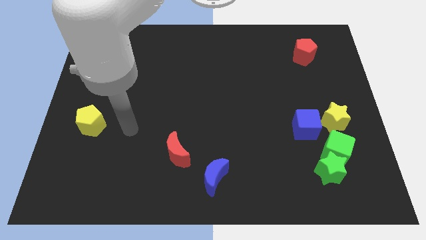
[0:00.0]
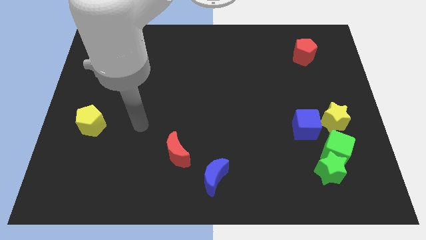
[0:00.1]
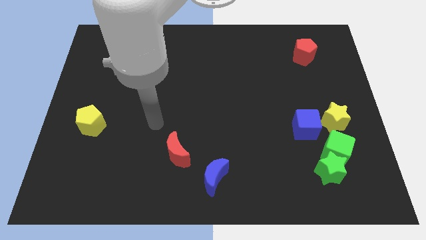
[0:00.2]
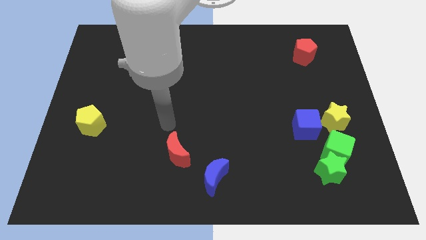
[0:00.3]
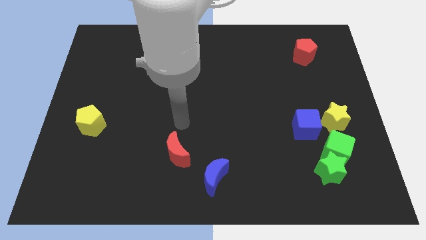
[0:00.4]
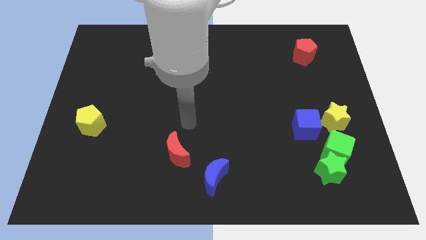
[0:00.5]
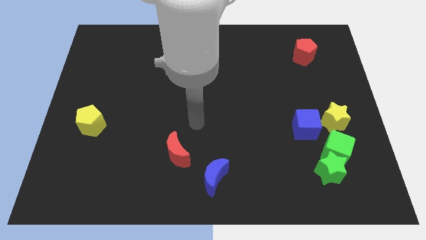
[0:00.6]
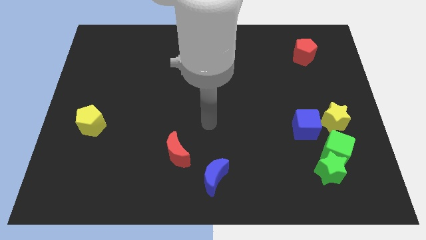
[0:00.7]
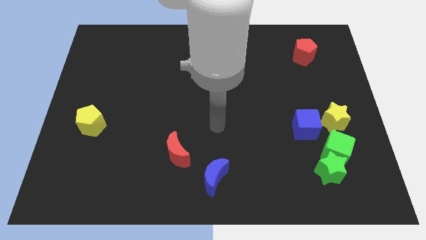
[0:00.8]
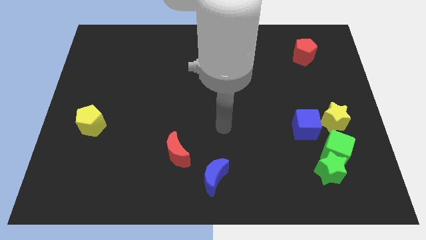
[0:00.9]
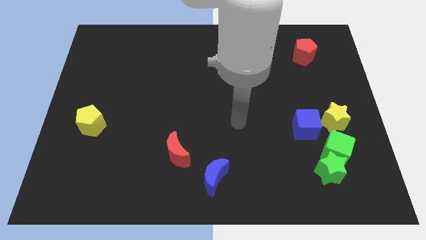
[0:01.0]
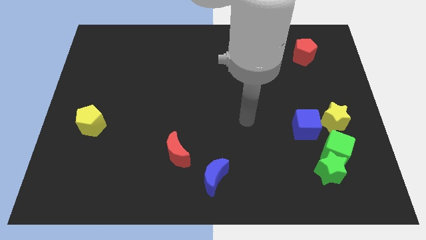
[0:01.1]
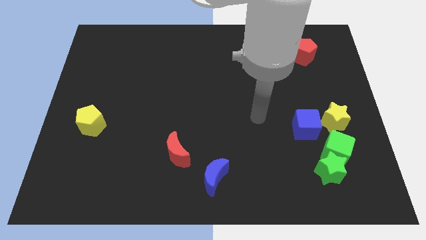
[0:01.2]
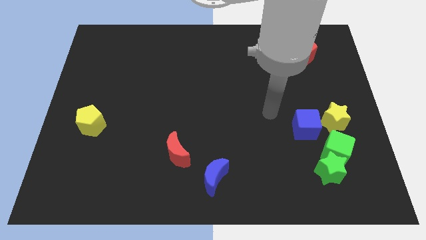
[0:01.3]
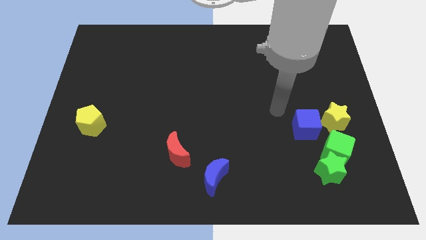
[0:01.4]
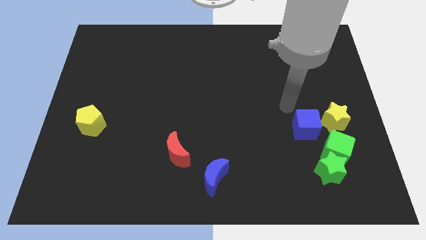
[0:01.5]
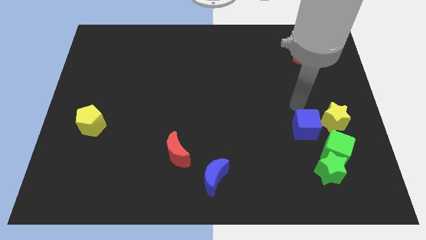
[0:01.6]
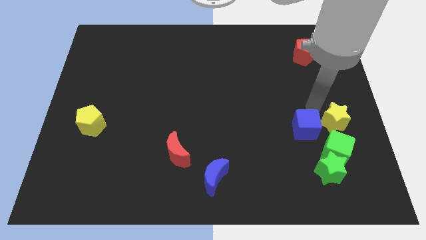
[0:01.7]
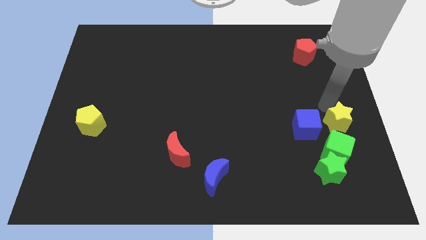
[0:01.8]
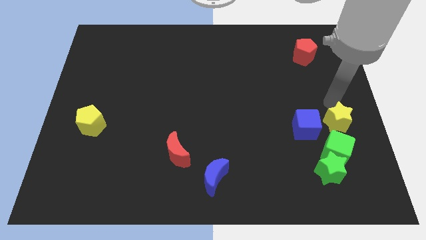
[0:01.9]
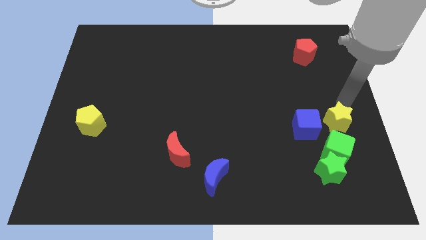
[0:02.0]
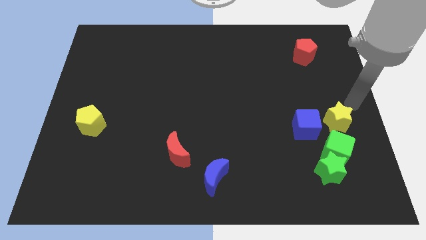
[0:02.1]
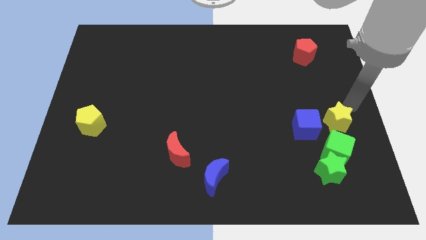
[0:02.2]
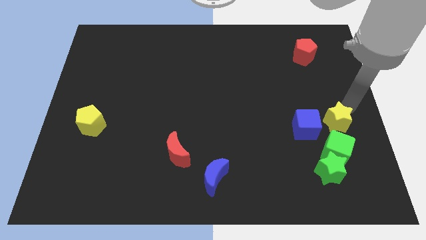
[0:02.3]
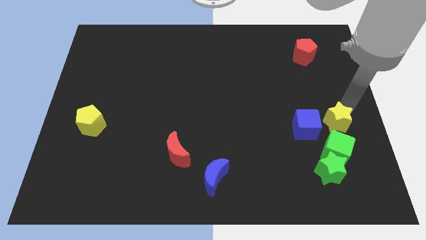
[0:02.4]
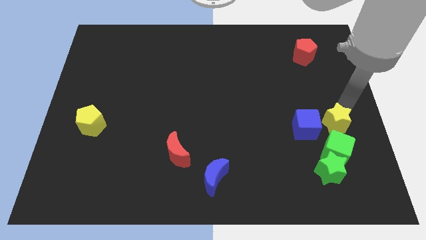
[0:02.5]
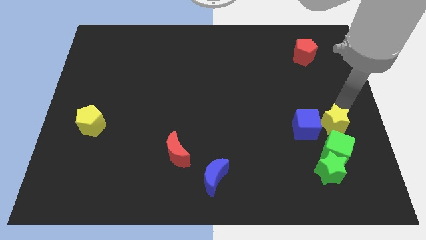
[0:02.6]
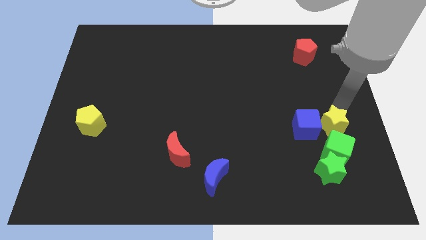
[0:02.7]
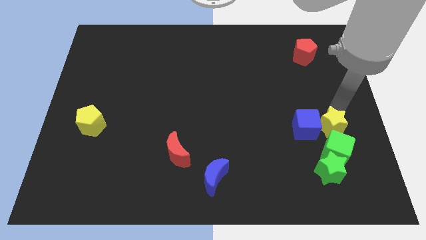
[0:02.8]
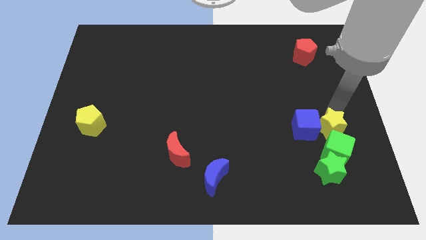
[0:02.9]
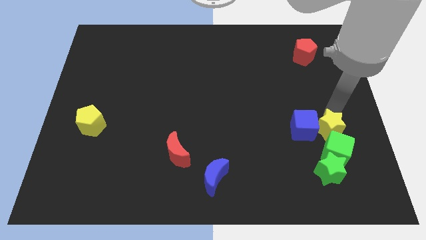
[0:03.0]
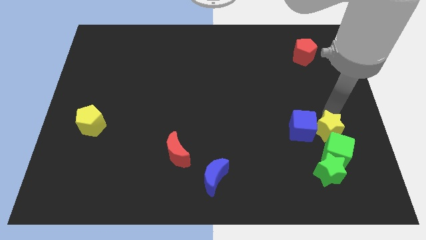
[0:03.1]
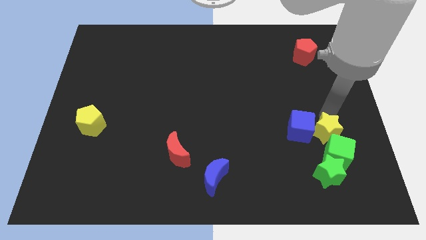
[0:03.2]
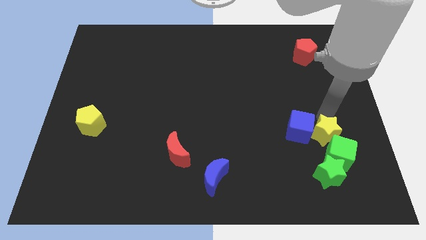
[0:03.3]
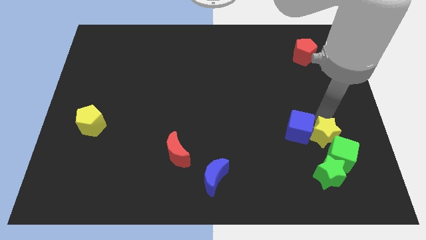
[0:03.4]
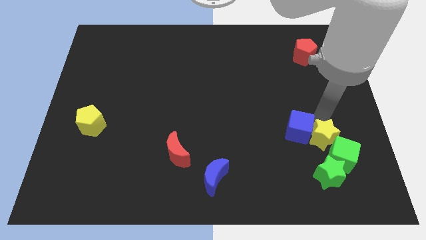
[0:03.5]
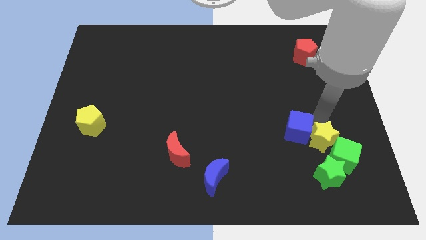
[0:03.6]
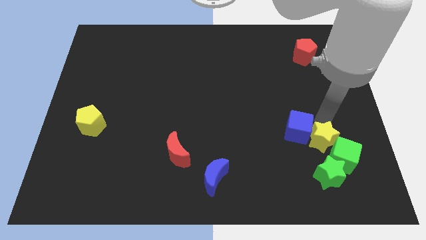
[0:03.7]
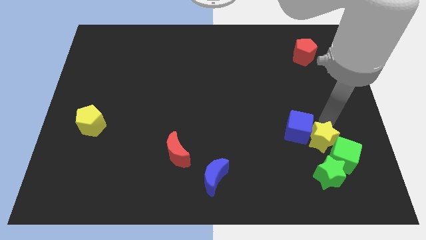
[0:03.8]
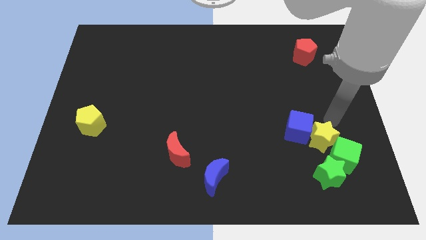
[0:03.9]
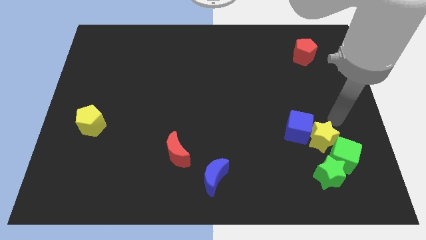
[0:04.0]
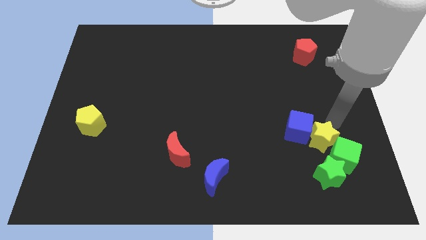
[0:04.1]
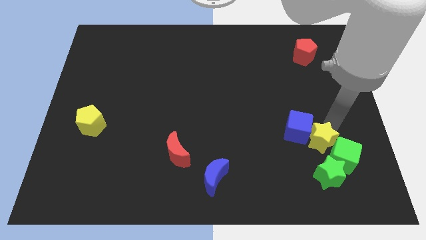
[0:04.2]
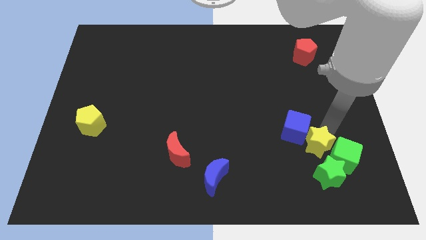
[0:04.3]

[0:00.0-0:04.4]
slightly push the yellow star downwards and left

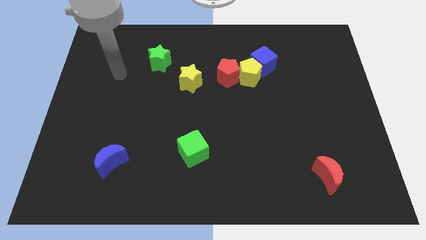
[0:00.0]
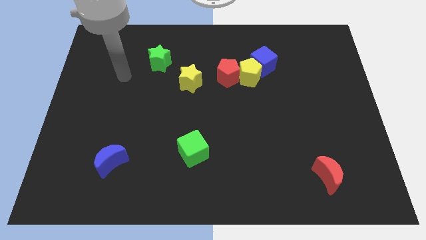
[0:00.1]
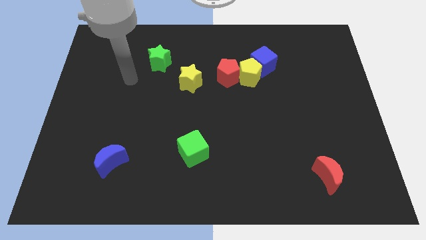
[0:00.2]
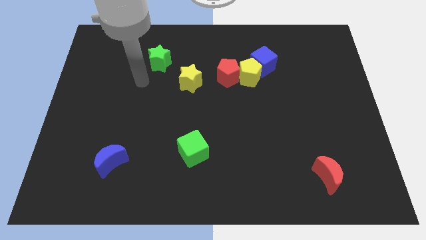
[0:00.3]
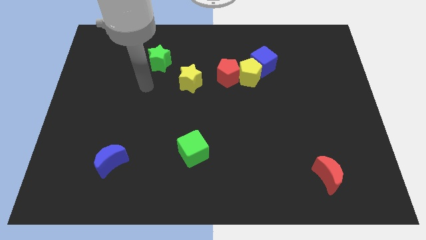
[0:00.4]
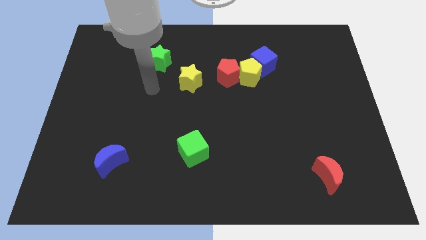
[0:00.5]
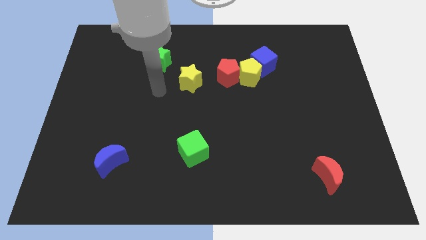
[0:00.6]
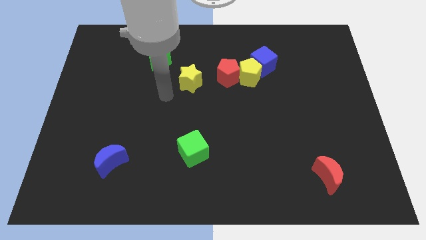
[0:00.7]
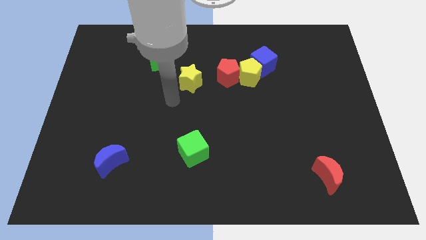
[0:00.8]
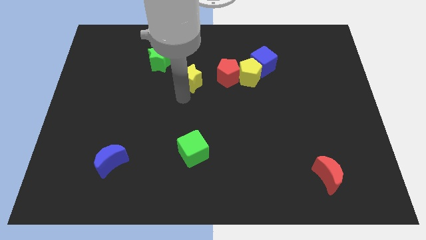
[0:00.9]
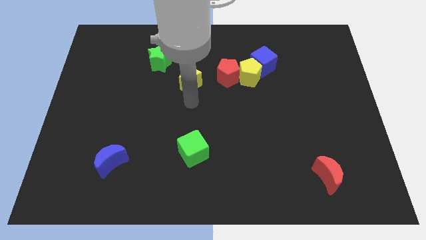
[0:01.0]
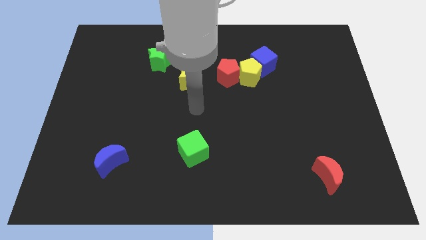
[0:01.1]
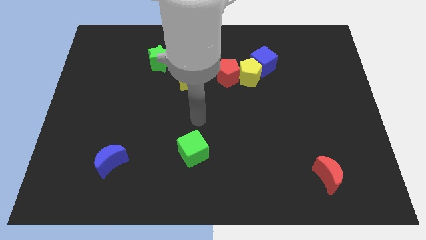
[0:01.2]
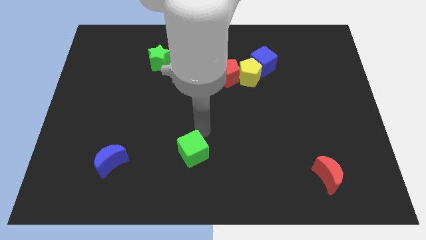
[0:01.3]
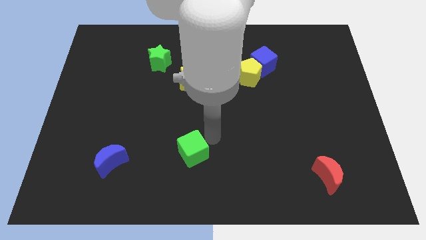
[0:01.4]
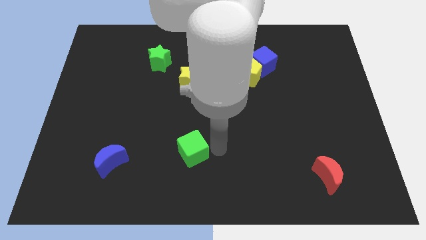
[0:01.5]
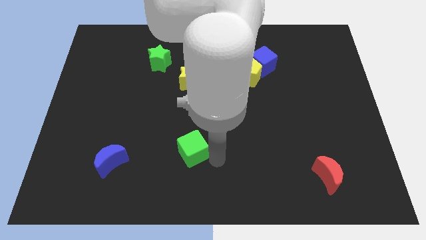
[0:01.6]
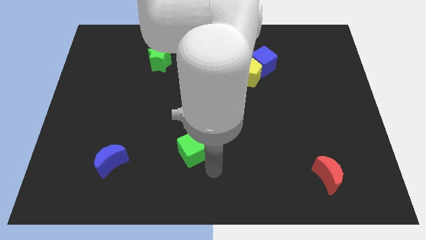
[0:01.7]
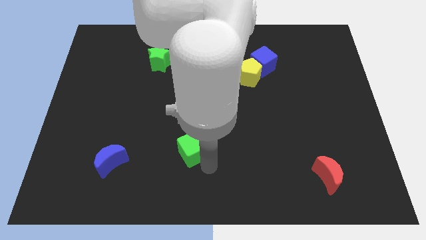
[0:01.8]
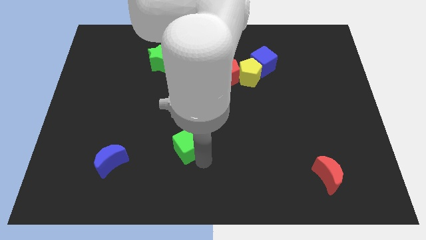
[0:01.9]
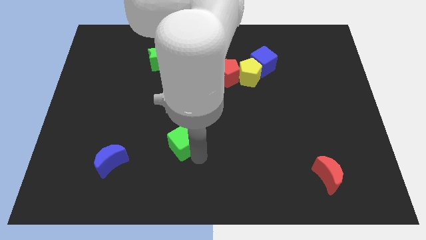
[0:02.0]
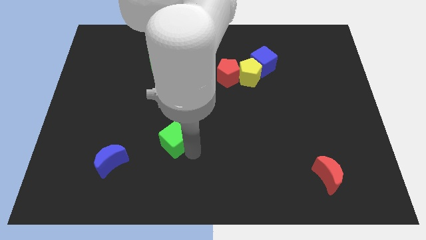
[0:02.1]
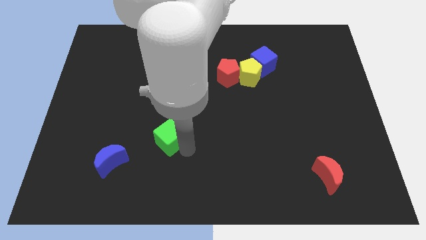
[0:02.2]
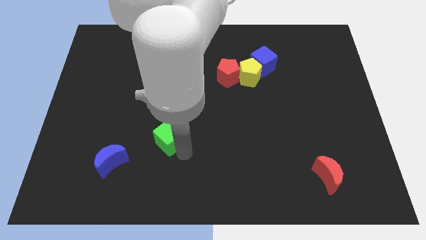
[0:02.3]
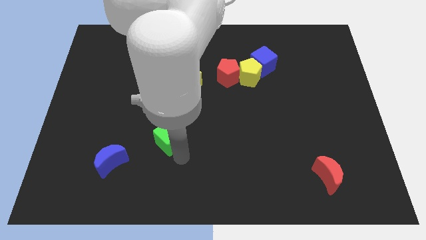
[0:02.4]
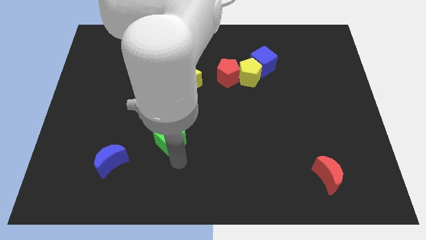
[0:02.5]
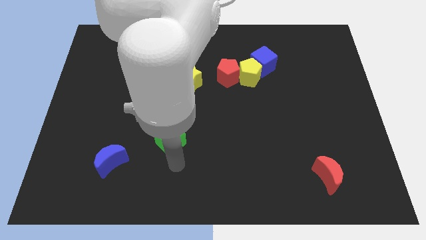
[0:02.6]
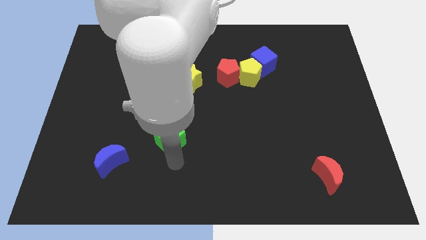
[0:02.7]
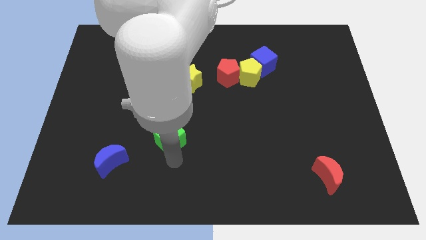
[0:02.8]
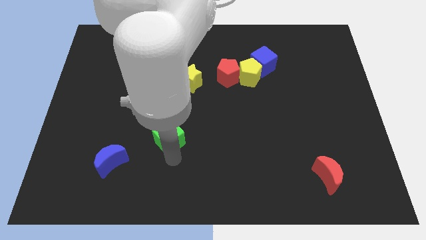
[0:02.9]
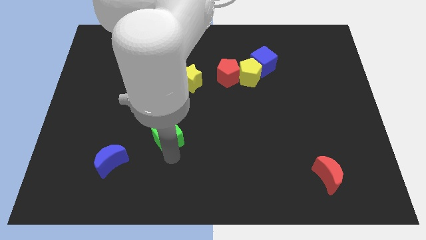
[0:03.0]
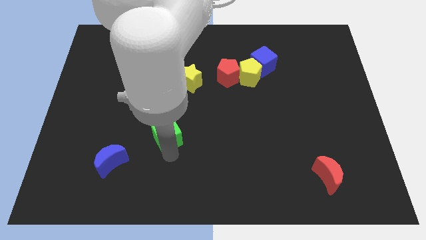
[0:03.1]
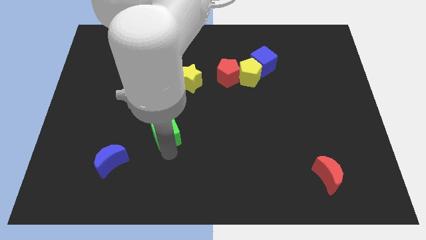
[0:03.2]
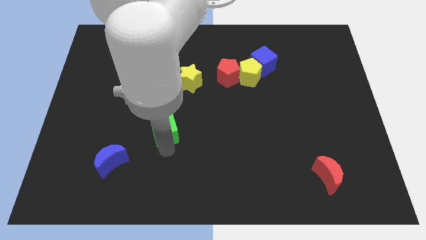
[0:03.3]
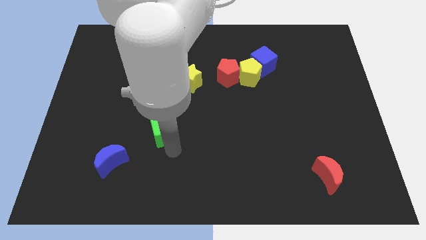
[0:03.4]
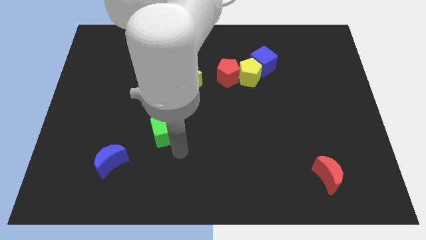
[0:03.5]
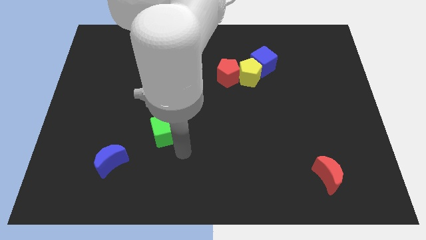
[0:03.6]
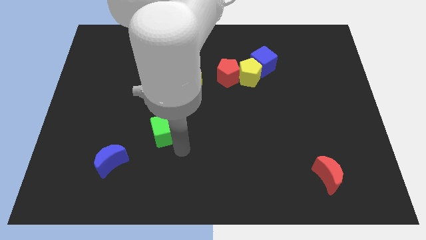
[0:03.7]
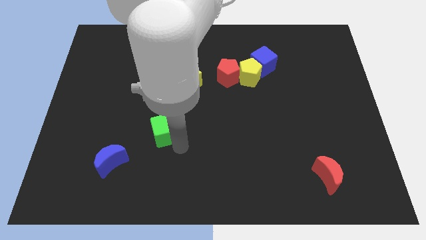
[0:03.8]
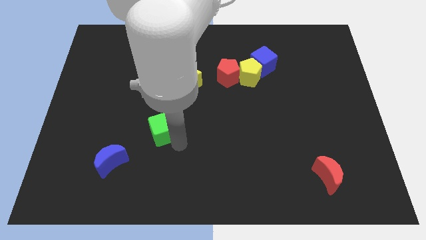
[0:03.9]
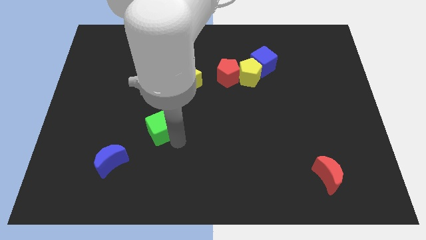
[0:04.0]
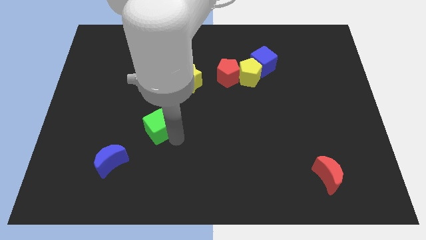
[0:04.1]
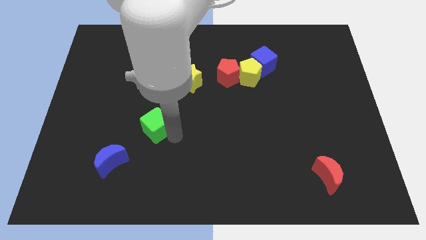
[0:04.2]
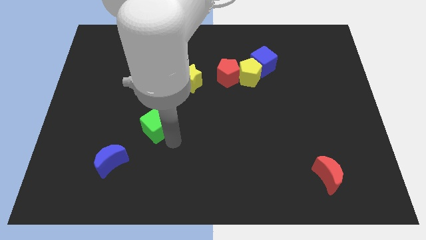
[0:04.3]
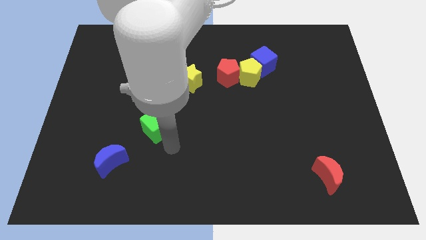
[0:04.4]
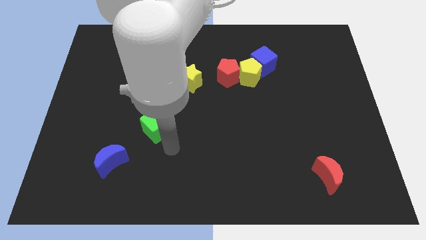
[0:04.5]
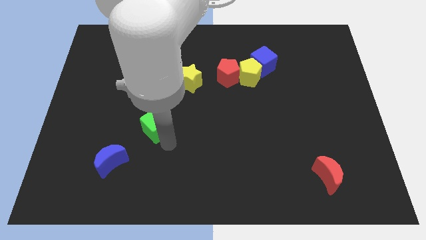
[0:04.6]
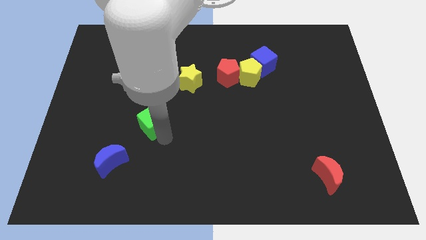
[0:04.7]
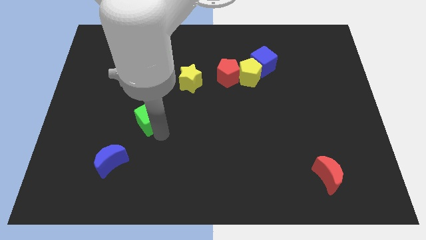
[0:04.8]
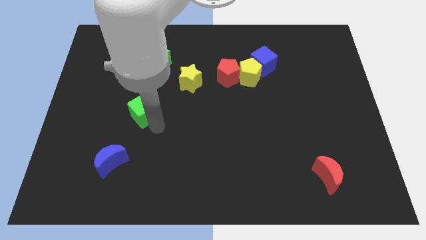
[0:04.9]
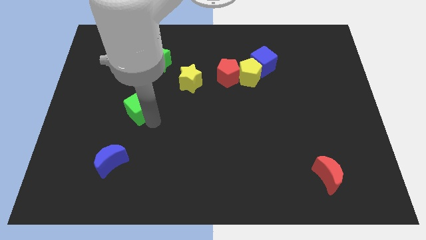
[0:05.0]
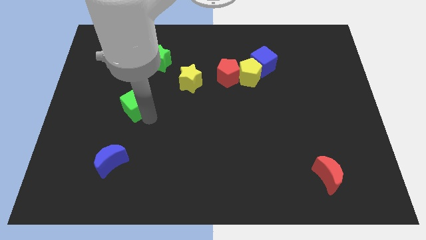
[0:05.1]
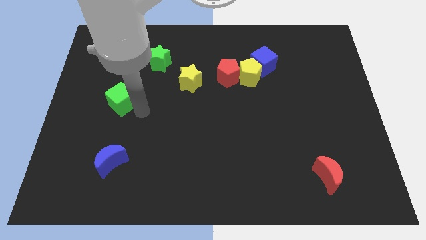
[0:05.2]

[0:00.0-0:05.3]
push the green cube upwards and left
